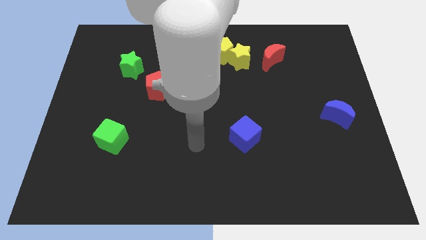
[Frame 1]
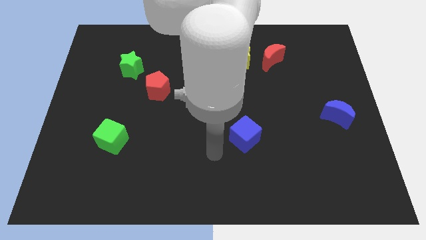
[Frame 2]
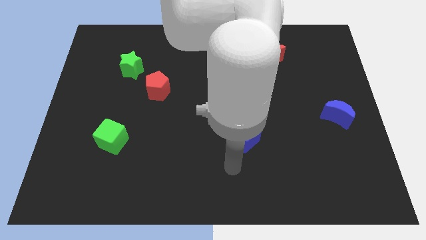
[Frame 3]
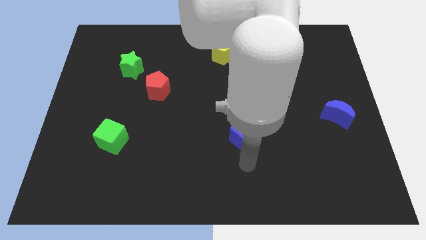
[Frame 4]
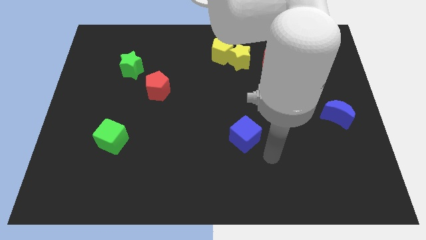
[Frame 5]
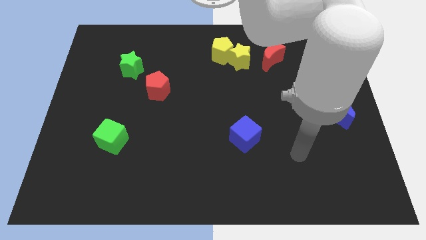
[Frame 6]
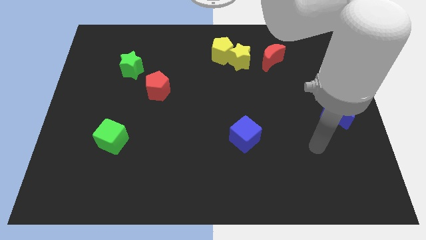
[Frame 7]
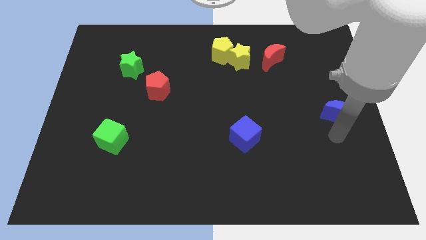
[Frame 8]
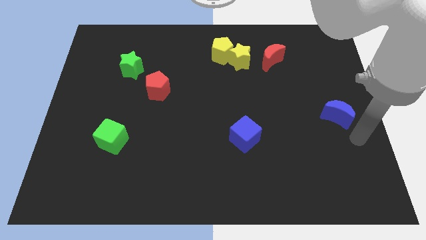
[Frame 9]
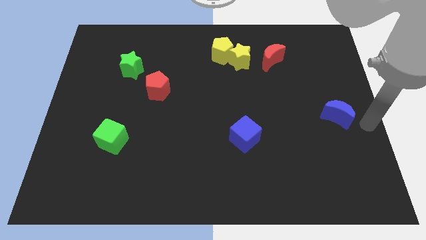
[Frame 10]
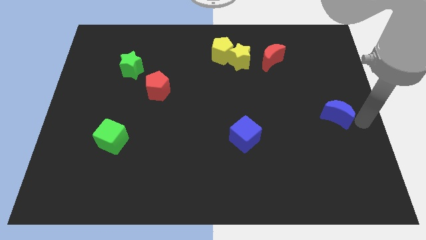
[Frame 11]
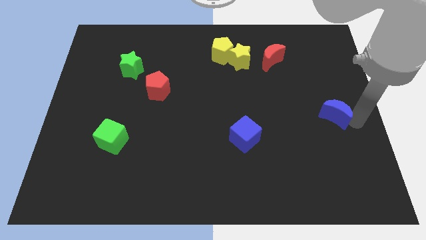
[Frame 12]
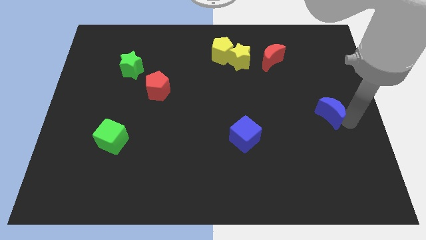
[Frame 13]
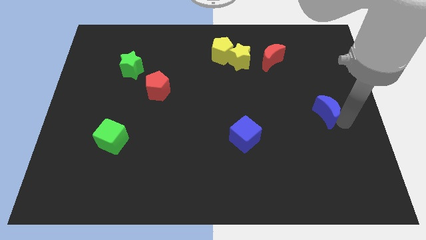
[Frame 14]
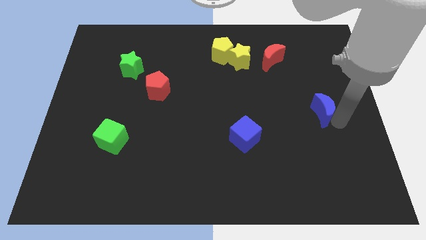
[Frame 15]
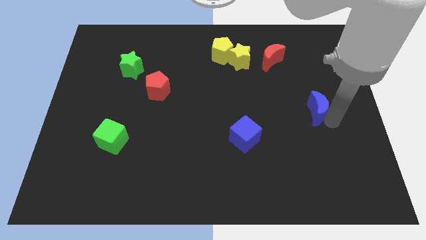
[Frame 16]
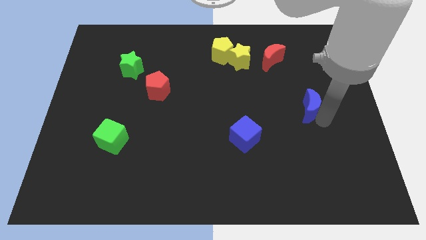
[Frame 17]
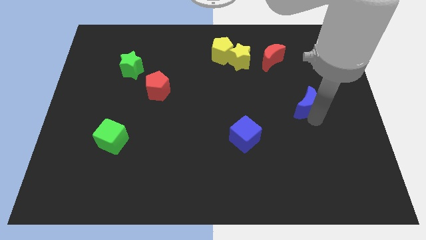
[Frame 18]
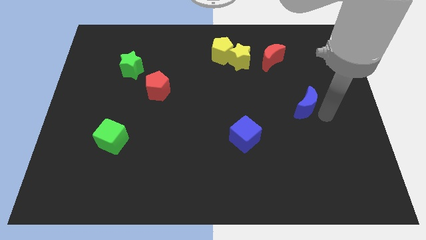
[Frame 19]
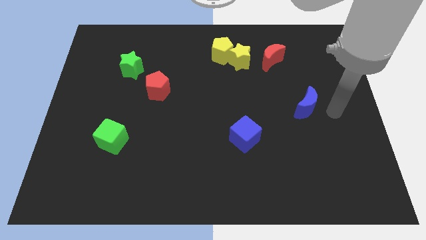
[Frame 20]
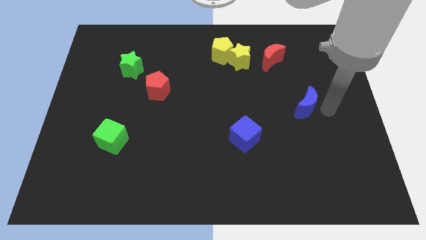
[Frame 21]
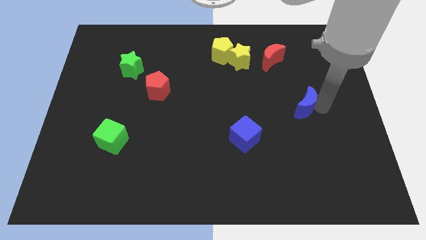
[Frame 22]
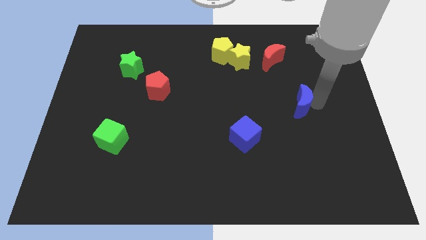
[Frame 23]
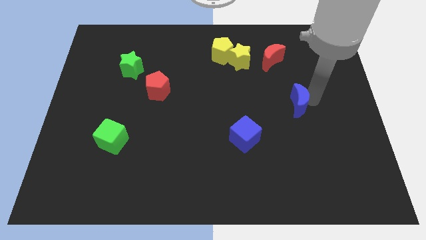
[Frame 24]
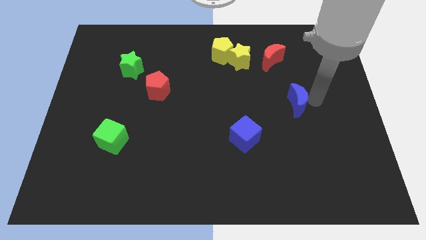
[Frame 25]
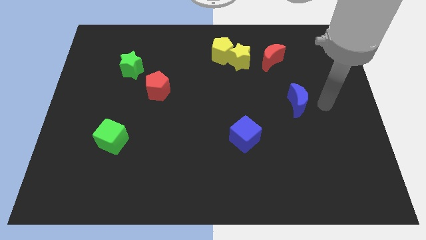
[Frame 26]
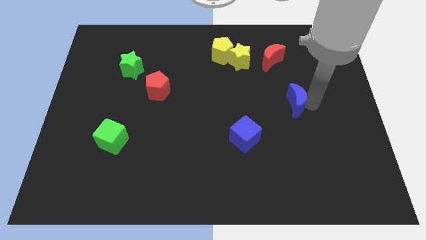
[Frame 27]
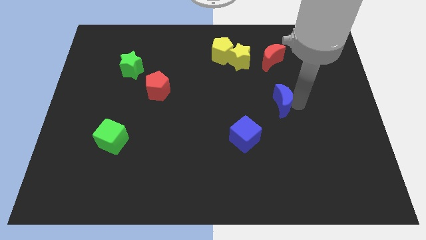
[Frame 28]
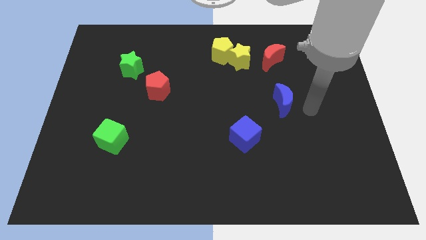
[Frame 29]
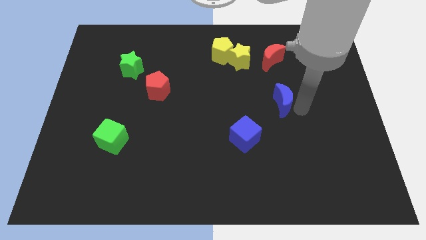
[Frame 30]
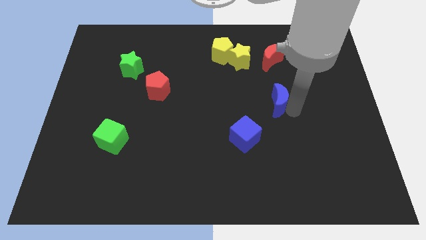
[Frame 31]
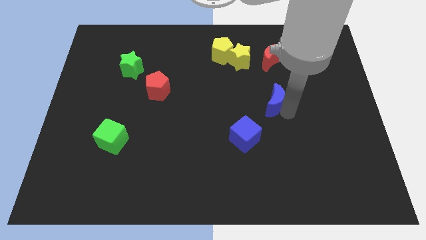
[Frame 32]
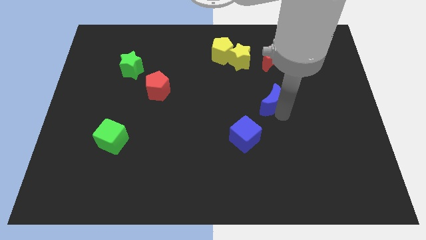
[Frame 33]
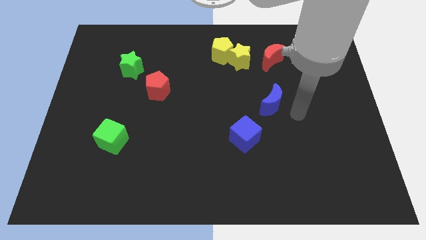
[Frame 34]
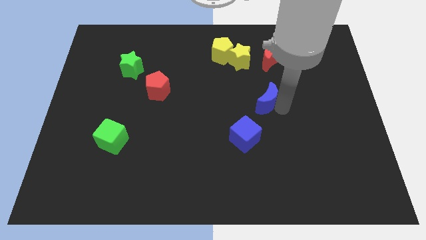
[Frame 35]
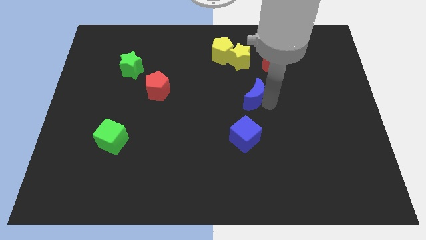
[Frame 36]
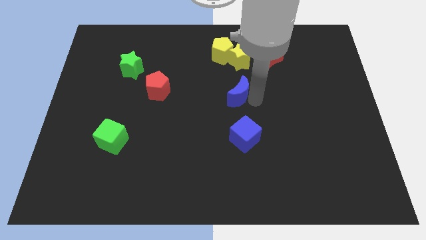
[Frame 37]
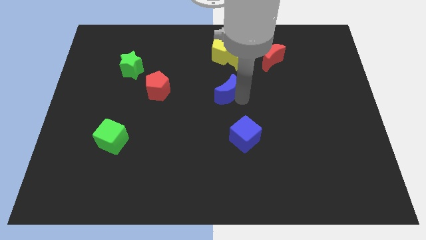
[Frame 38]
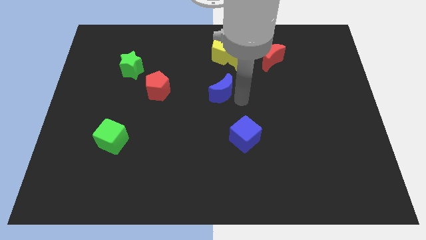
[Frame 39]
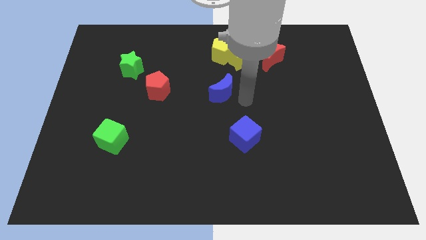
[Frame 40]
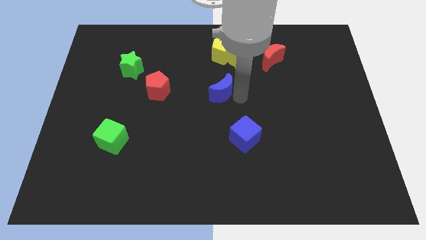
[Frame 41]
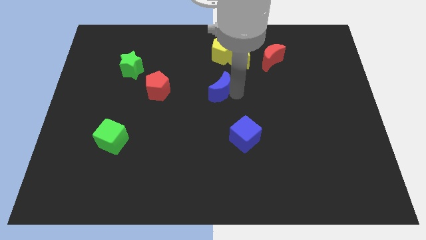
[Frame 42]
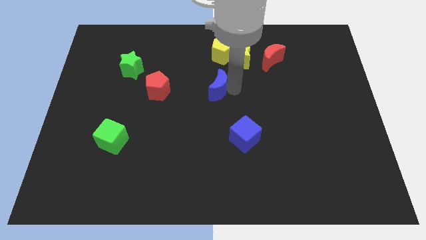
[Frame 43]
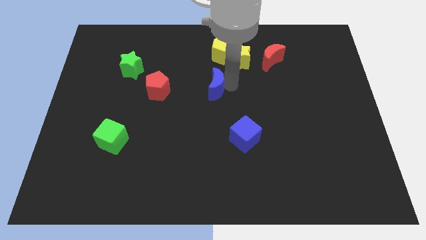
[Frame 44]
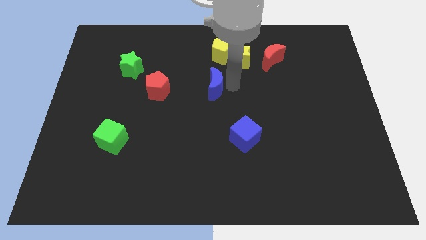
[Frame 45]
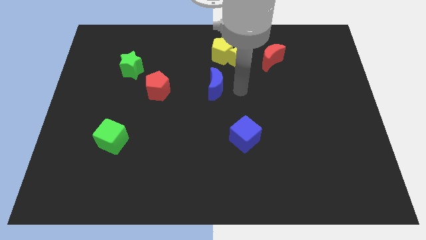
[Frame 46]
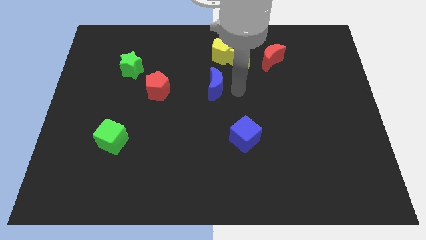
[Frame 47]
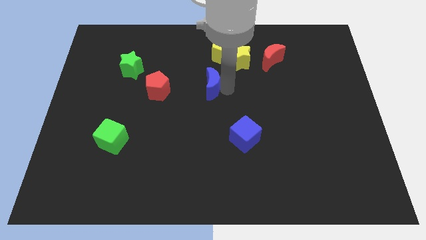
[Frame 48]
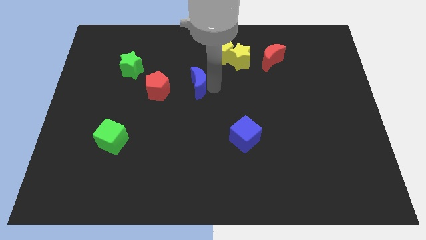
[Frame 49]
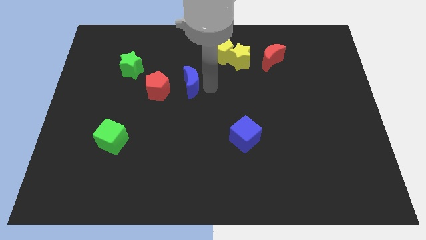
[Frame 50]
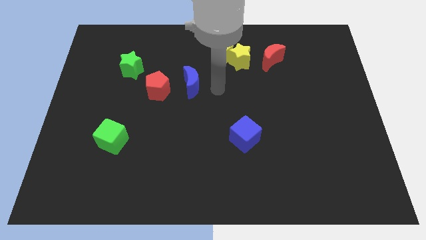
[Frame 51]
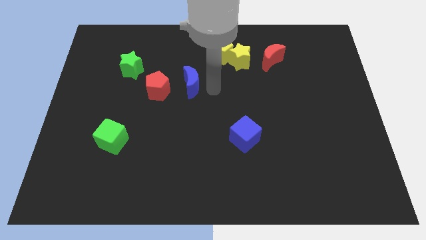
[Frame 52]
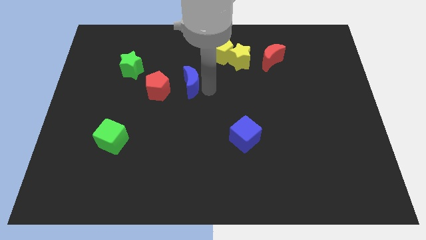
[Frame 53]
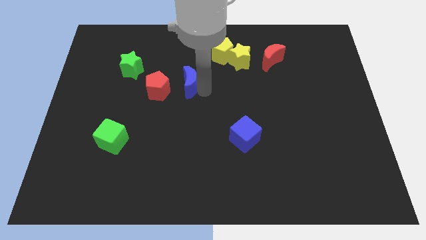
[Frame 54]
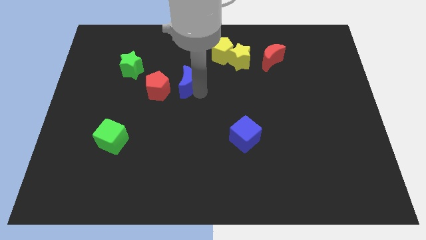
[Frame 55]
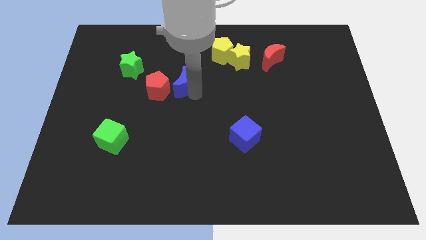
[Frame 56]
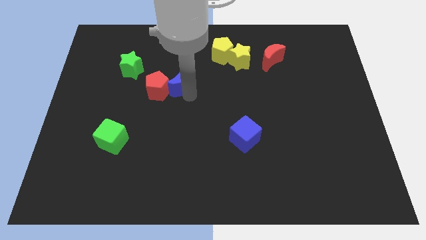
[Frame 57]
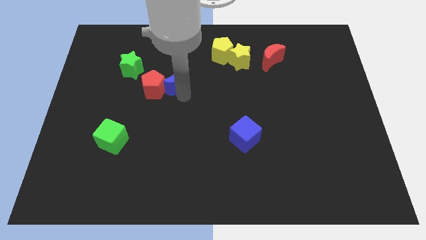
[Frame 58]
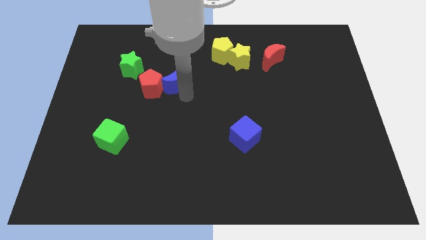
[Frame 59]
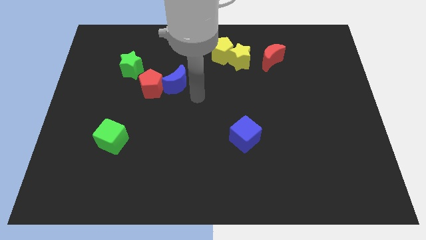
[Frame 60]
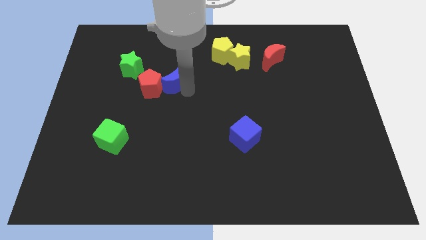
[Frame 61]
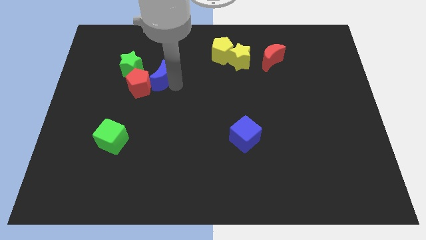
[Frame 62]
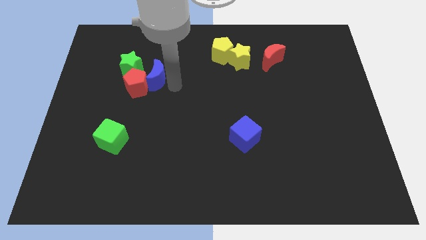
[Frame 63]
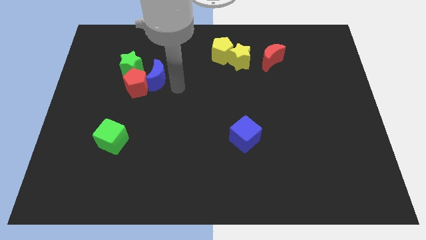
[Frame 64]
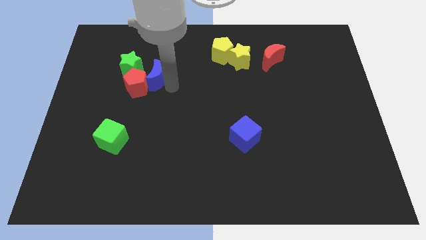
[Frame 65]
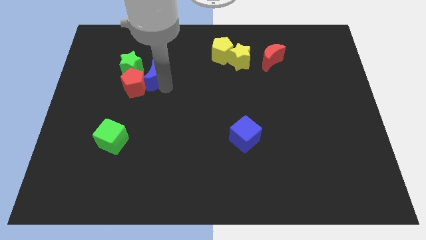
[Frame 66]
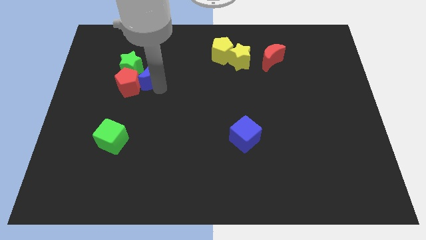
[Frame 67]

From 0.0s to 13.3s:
put the blue moon to the green star
